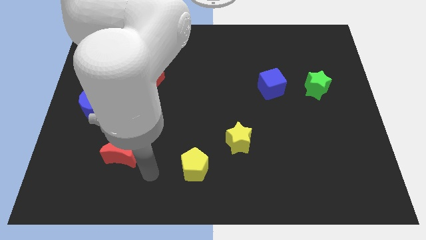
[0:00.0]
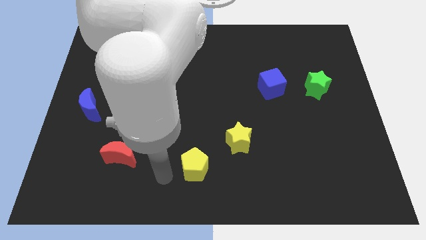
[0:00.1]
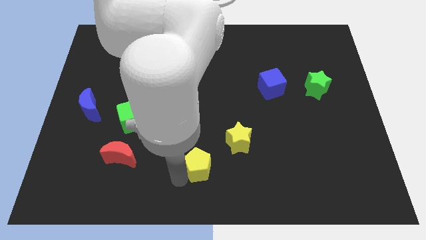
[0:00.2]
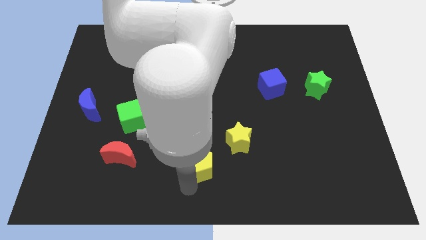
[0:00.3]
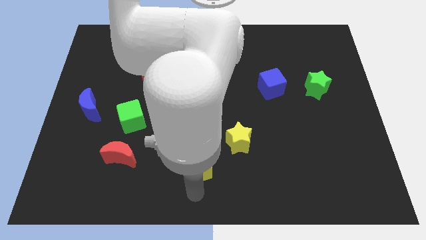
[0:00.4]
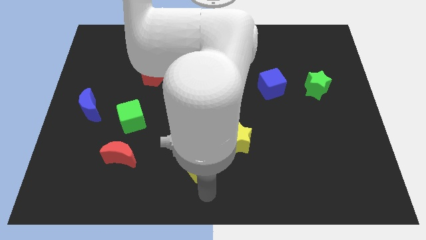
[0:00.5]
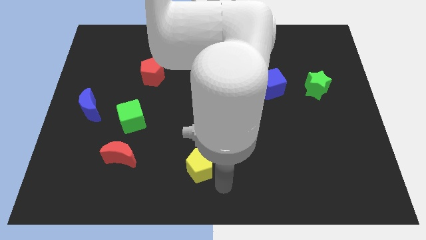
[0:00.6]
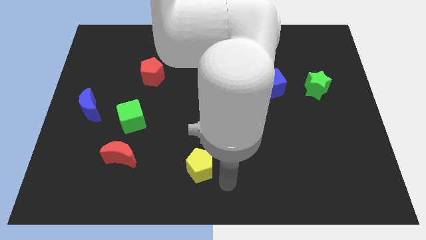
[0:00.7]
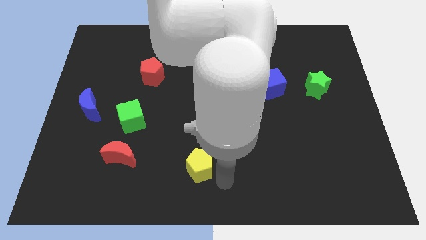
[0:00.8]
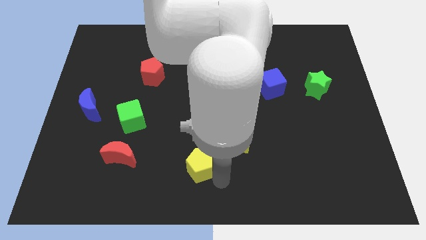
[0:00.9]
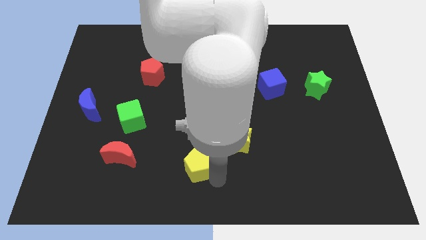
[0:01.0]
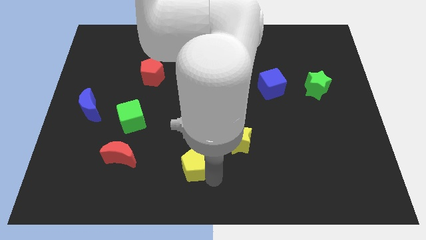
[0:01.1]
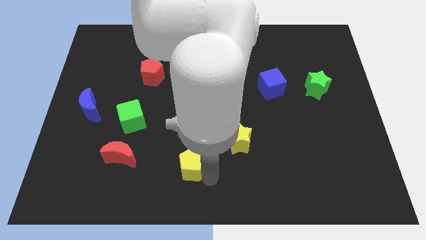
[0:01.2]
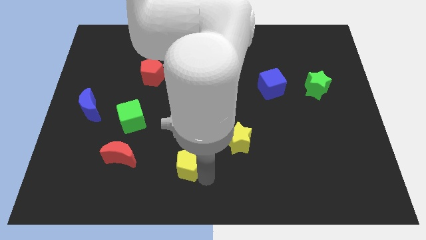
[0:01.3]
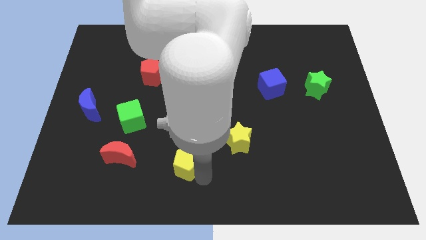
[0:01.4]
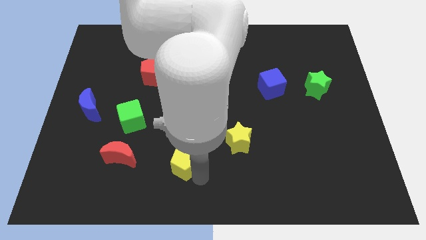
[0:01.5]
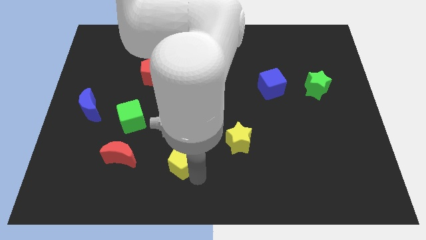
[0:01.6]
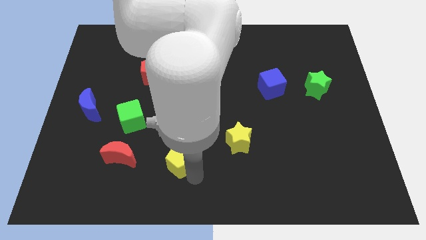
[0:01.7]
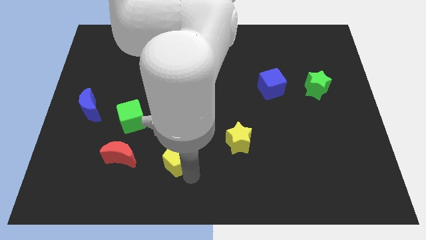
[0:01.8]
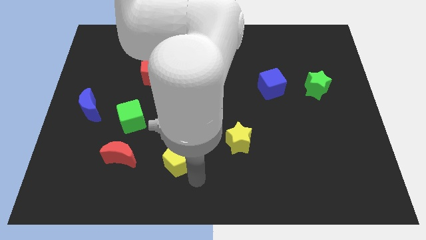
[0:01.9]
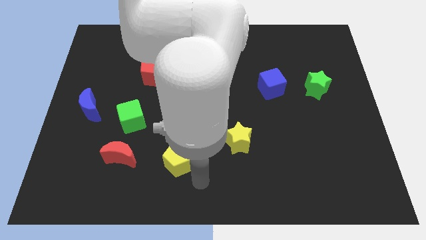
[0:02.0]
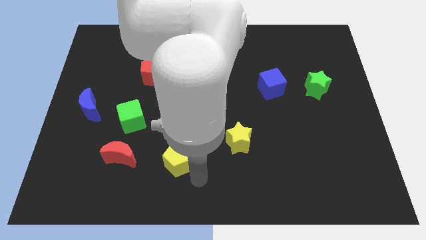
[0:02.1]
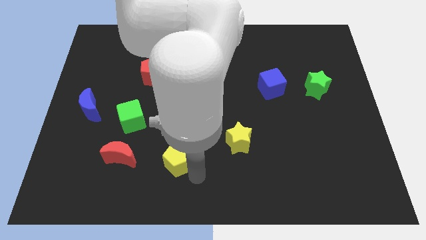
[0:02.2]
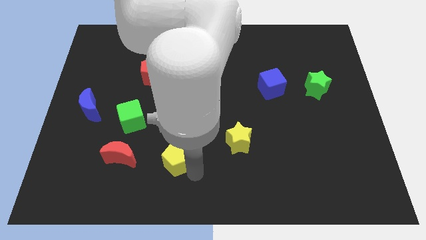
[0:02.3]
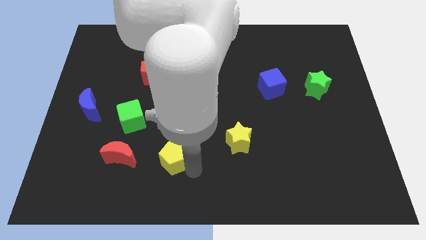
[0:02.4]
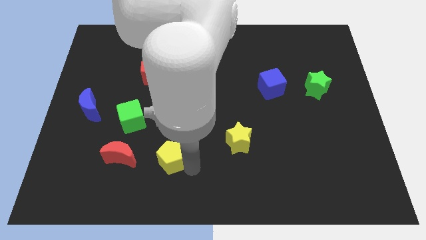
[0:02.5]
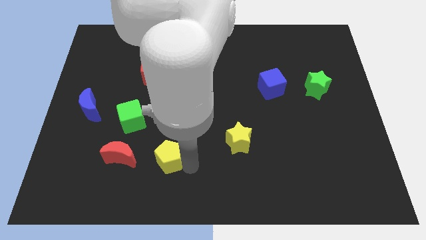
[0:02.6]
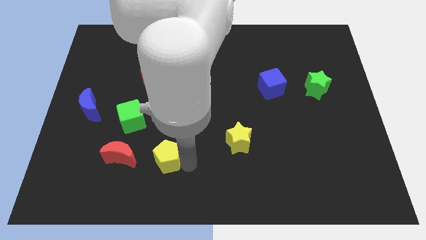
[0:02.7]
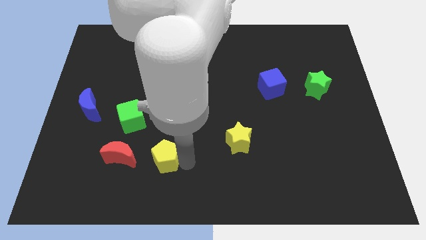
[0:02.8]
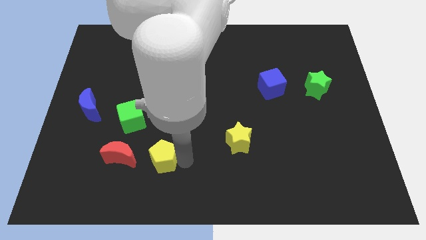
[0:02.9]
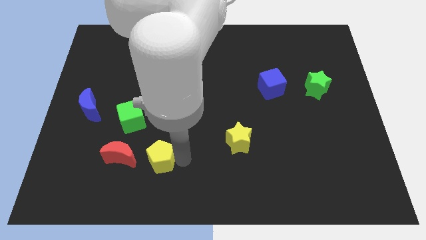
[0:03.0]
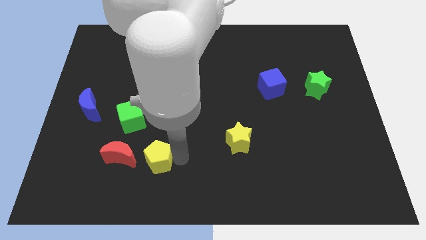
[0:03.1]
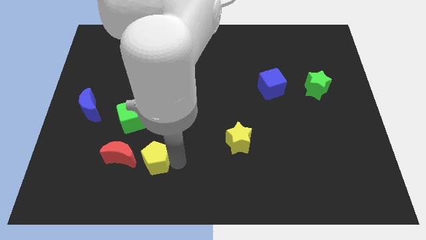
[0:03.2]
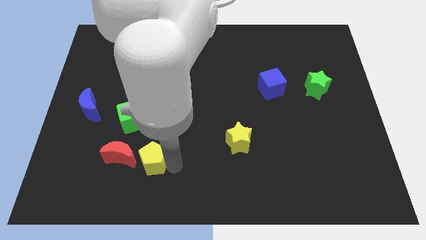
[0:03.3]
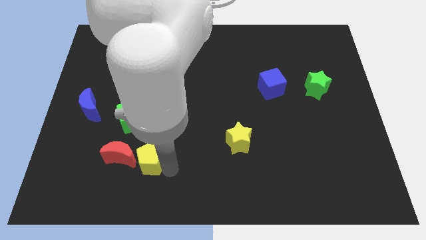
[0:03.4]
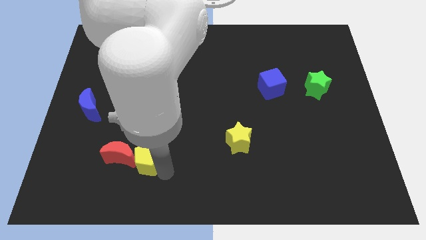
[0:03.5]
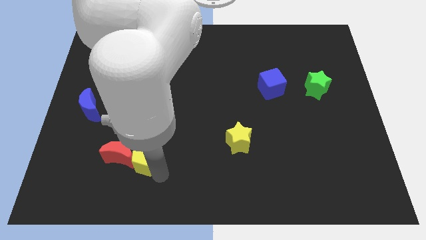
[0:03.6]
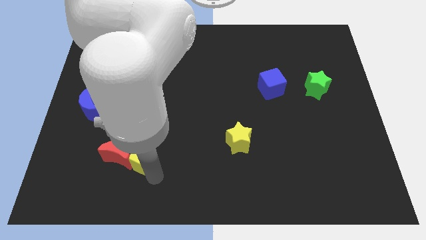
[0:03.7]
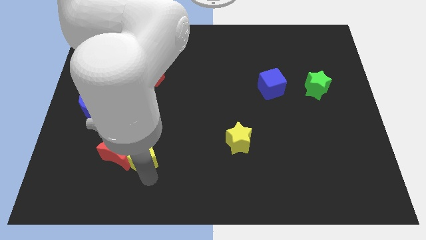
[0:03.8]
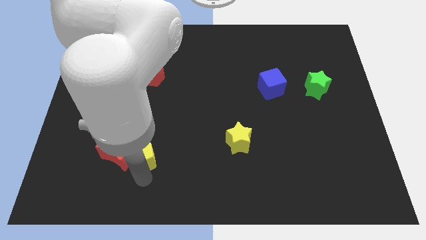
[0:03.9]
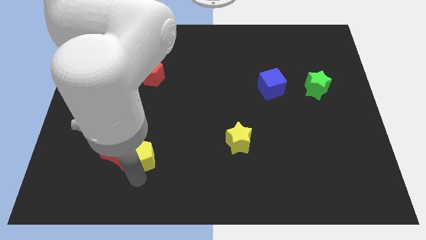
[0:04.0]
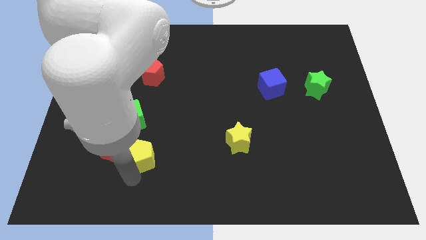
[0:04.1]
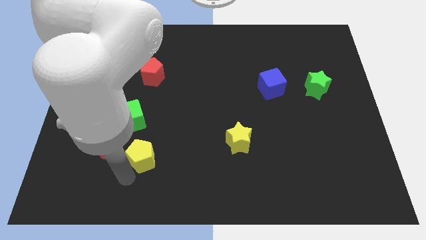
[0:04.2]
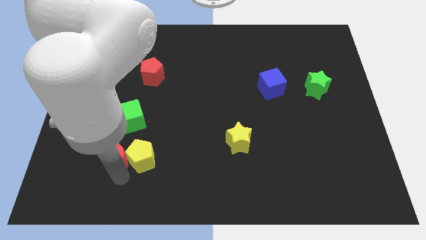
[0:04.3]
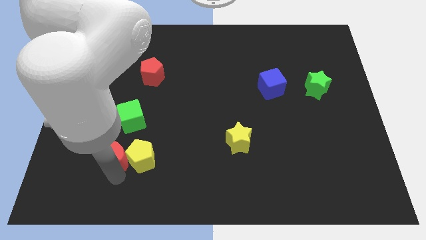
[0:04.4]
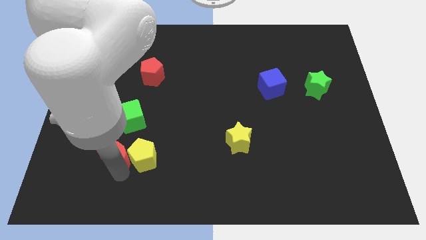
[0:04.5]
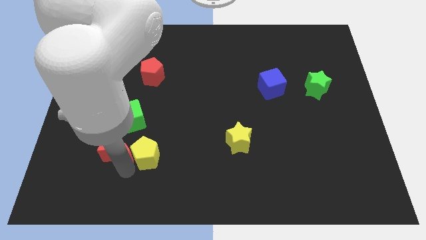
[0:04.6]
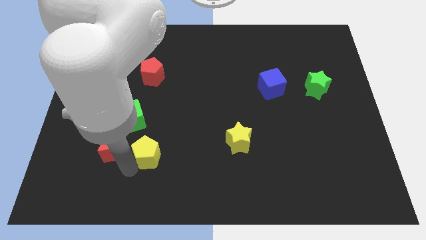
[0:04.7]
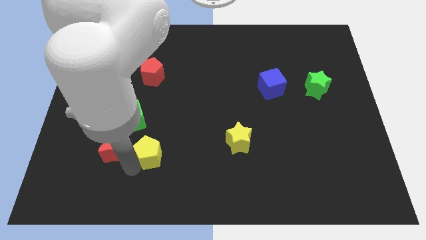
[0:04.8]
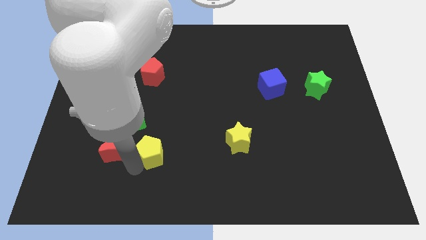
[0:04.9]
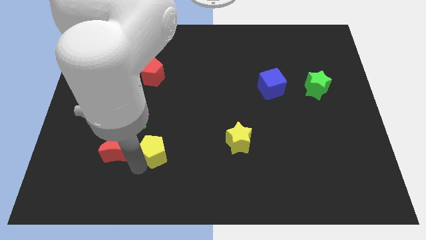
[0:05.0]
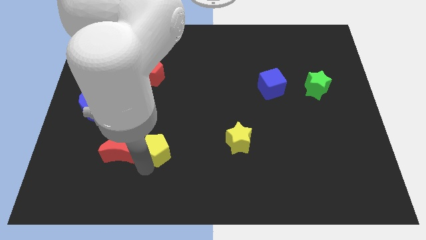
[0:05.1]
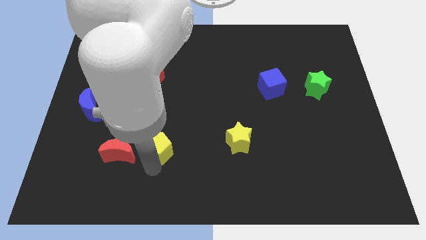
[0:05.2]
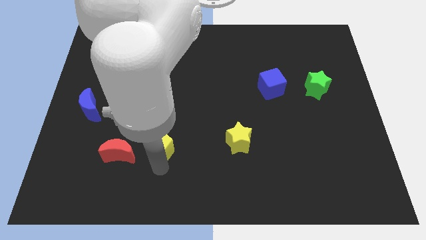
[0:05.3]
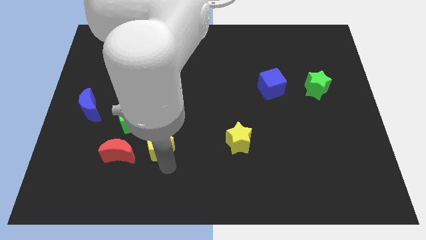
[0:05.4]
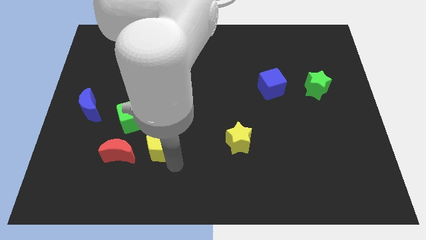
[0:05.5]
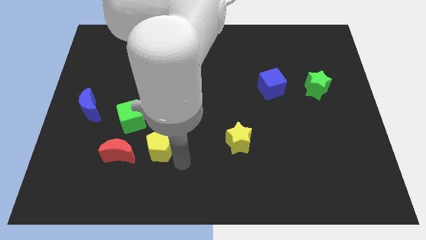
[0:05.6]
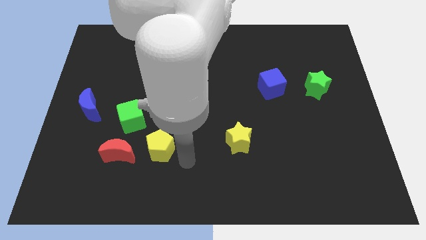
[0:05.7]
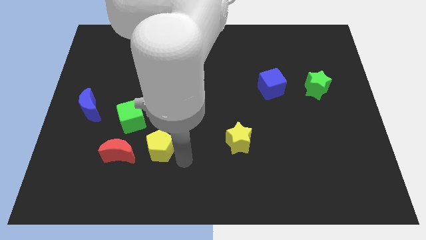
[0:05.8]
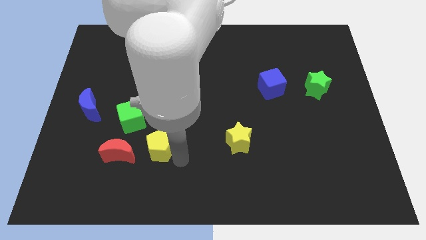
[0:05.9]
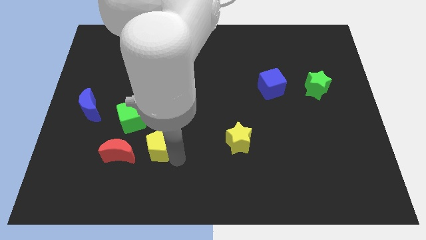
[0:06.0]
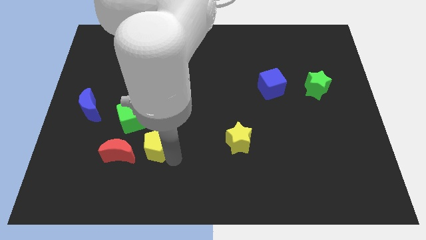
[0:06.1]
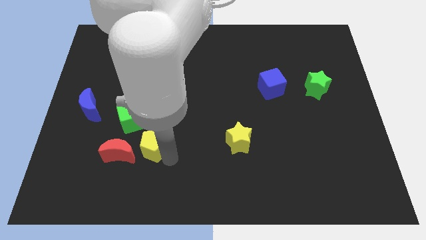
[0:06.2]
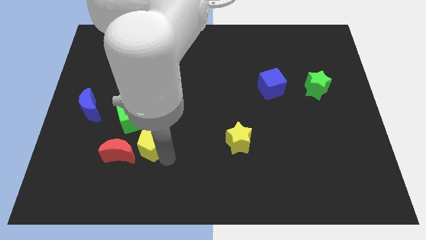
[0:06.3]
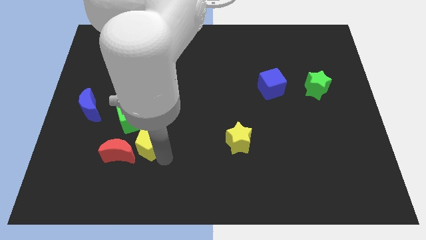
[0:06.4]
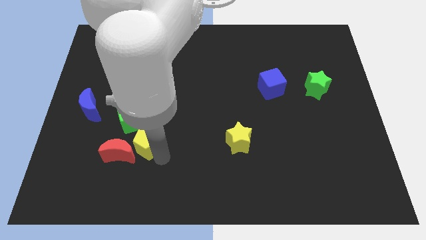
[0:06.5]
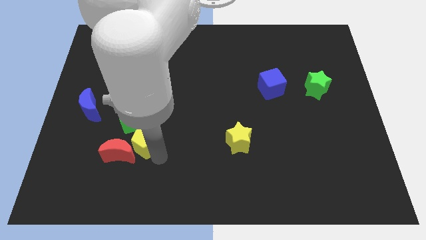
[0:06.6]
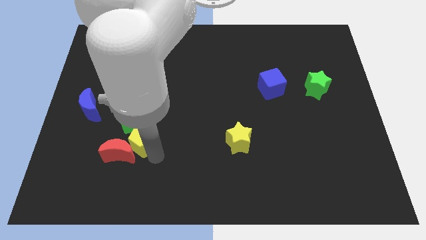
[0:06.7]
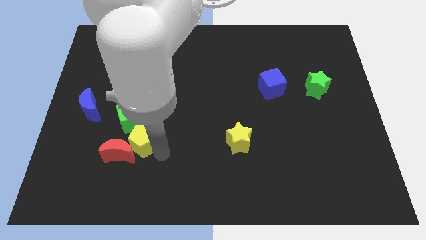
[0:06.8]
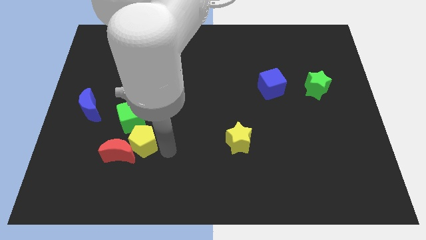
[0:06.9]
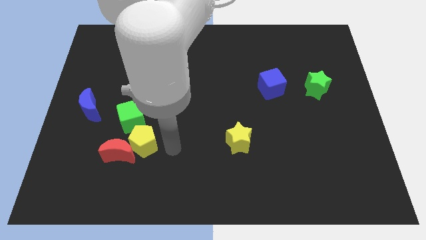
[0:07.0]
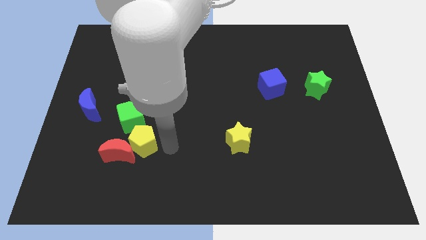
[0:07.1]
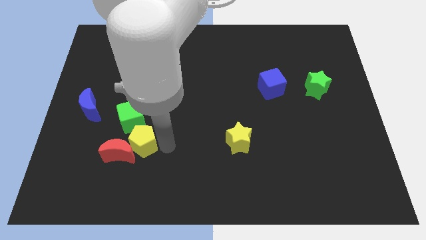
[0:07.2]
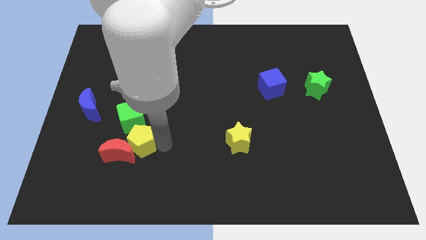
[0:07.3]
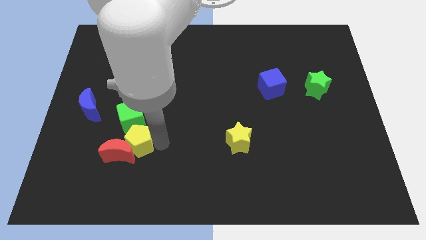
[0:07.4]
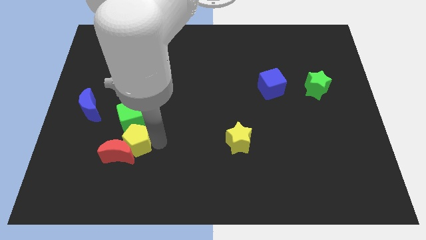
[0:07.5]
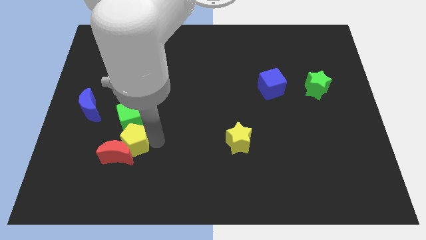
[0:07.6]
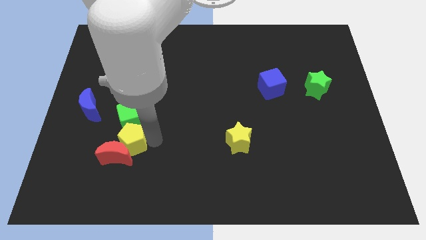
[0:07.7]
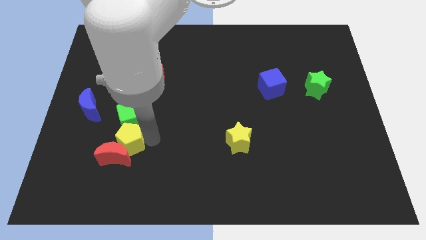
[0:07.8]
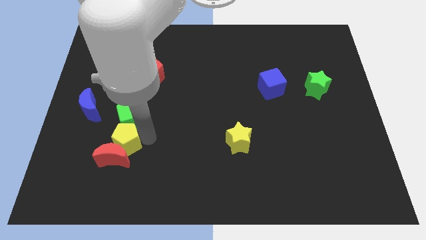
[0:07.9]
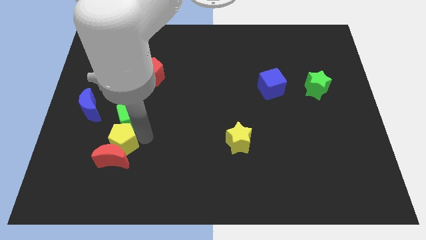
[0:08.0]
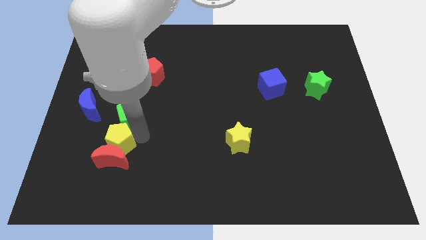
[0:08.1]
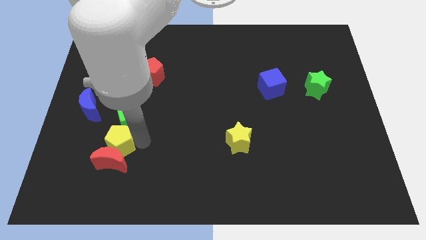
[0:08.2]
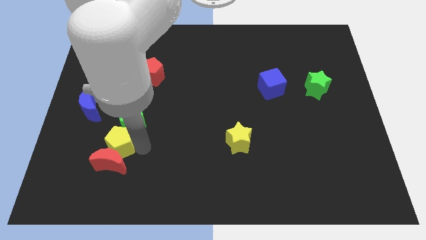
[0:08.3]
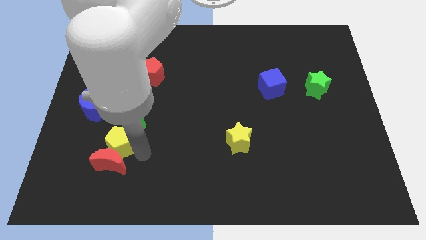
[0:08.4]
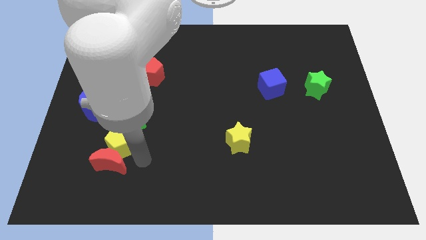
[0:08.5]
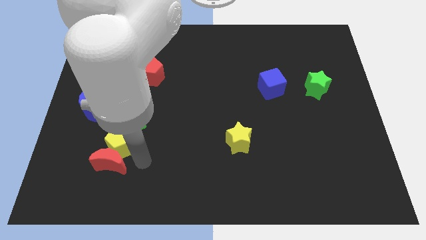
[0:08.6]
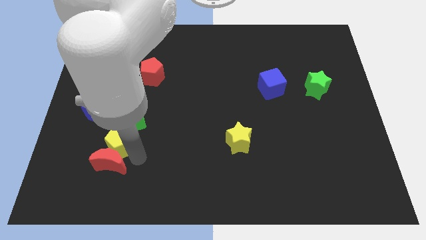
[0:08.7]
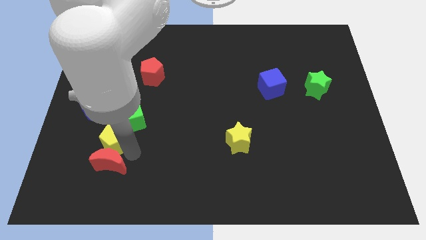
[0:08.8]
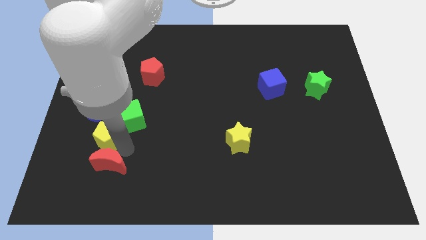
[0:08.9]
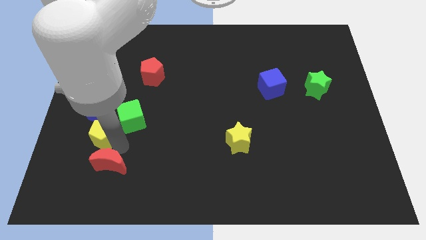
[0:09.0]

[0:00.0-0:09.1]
put the yellow pentagon to the left side of the green cube
